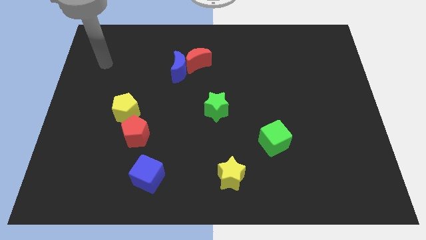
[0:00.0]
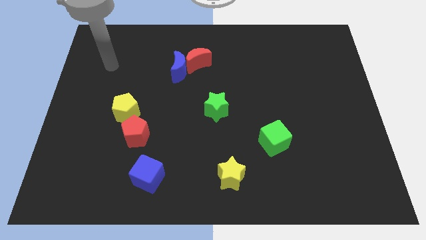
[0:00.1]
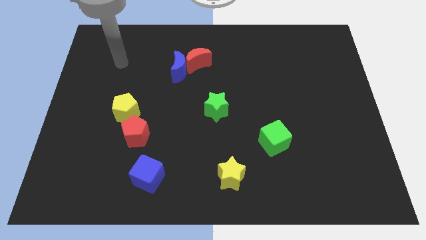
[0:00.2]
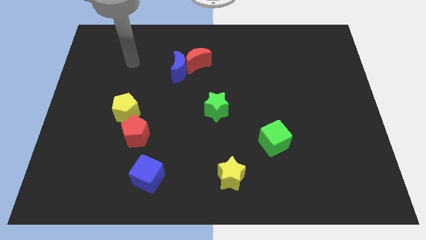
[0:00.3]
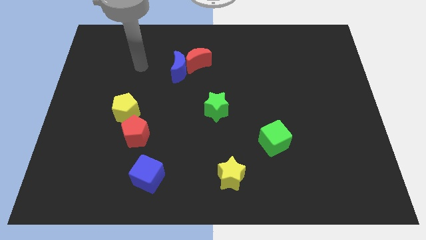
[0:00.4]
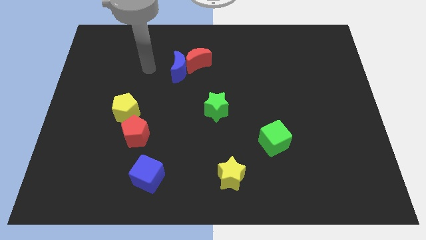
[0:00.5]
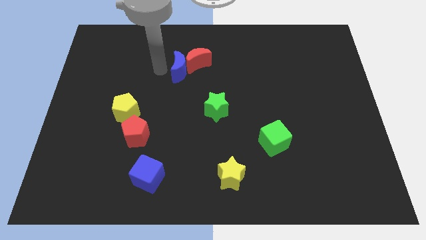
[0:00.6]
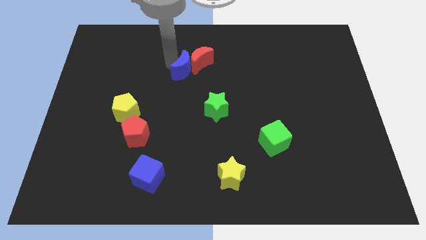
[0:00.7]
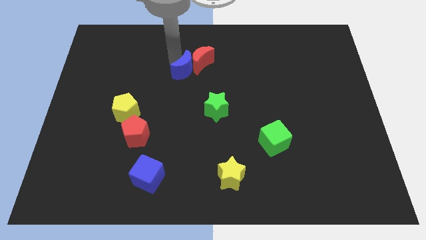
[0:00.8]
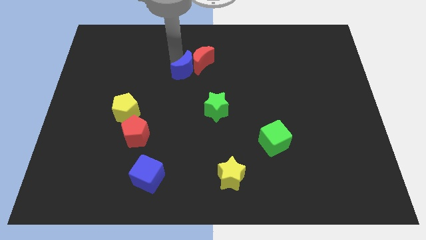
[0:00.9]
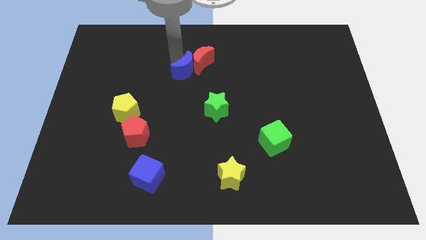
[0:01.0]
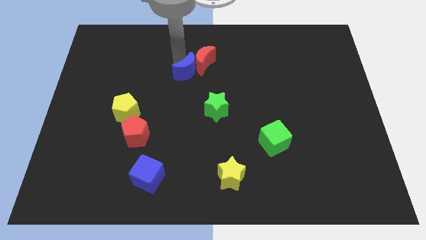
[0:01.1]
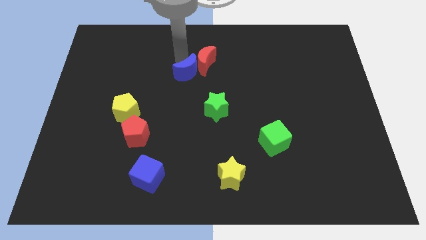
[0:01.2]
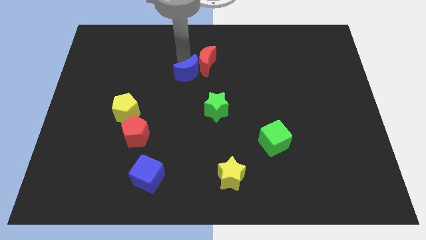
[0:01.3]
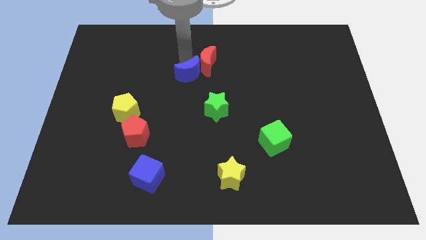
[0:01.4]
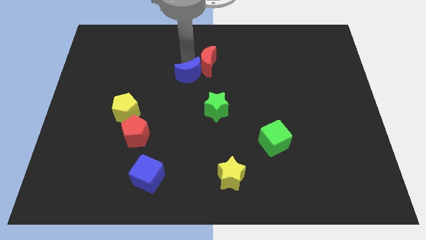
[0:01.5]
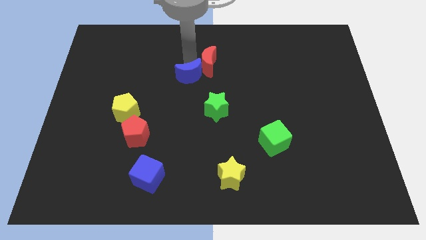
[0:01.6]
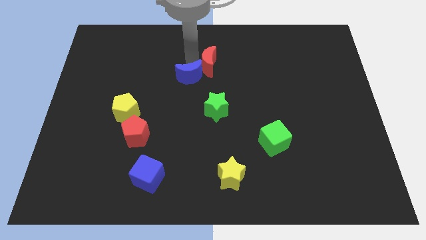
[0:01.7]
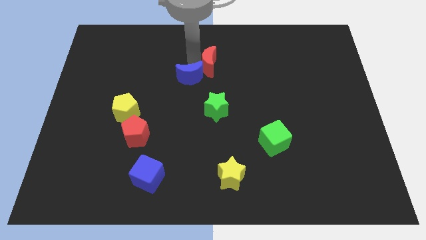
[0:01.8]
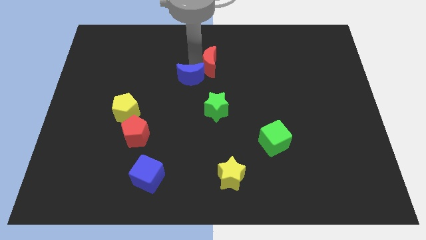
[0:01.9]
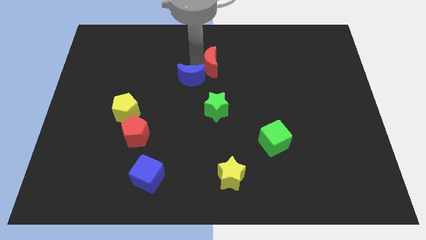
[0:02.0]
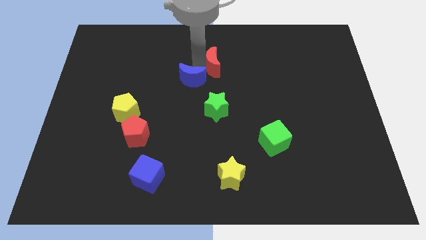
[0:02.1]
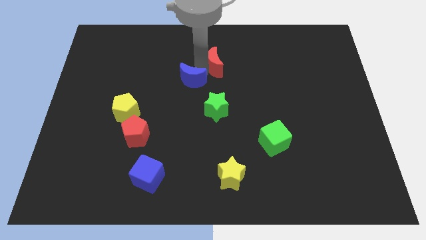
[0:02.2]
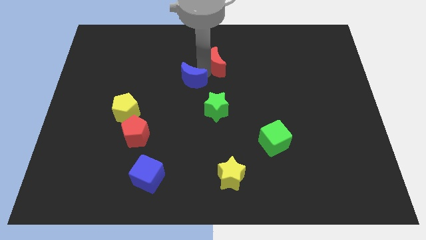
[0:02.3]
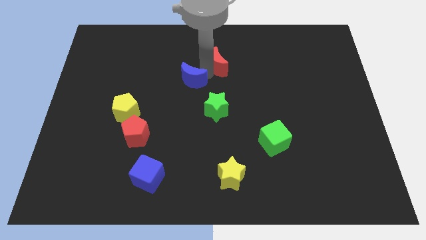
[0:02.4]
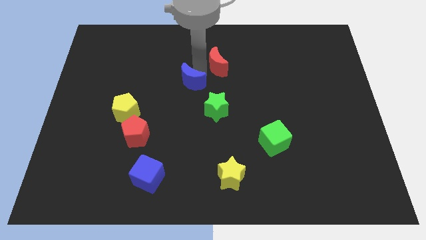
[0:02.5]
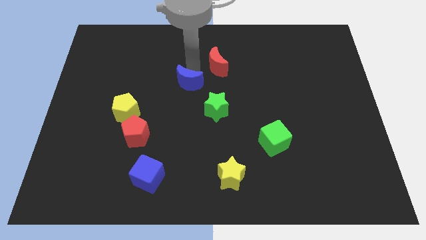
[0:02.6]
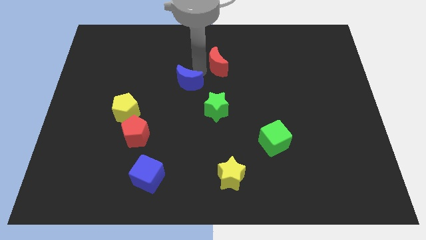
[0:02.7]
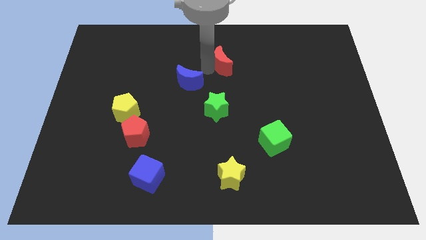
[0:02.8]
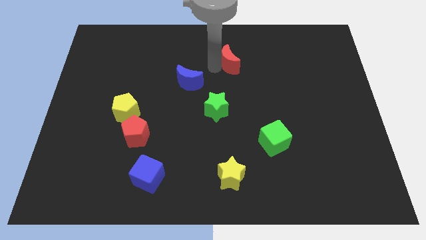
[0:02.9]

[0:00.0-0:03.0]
slide the red moon a bit to the right

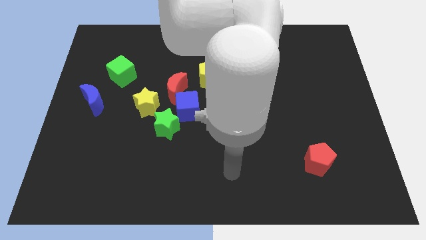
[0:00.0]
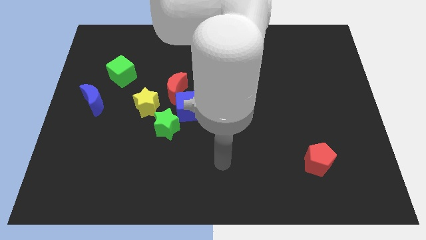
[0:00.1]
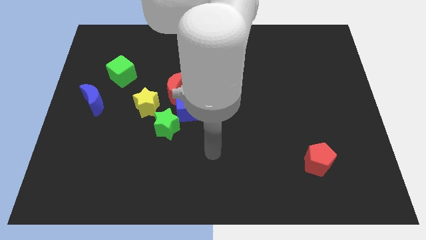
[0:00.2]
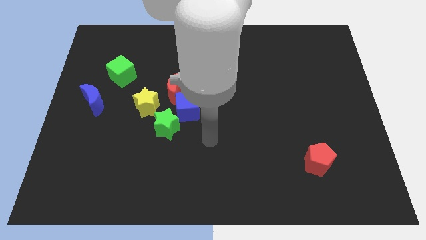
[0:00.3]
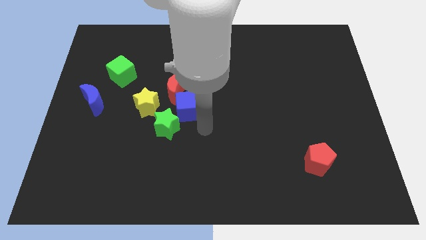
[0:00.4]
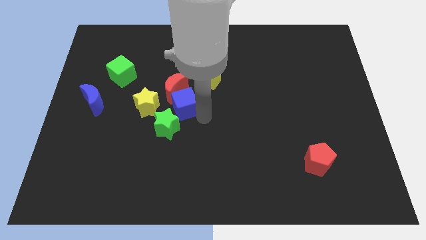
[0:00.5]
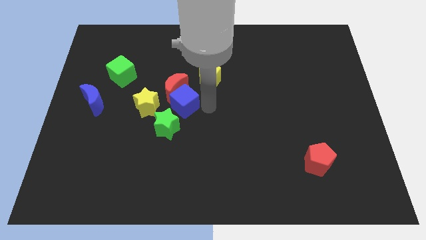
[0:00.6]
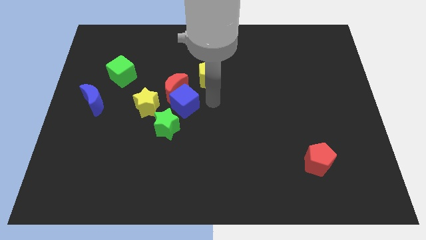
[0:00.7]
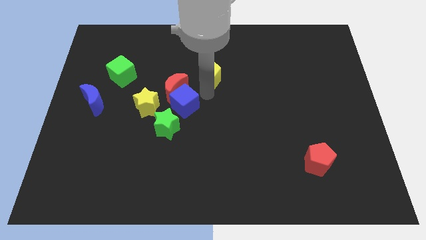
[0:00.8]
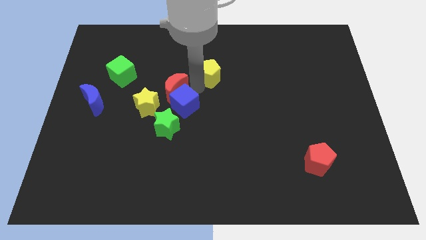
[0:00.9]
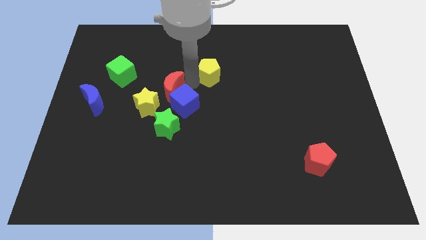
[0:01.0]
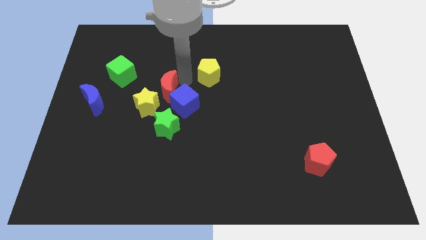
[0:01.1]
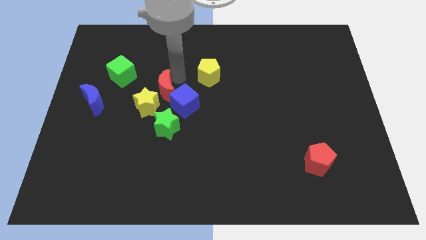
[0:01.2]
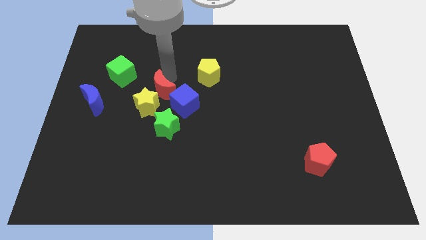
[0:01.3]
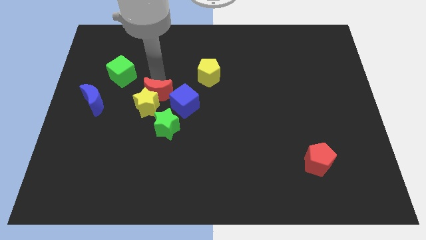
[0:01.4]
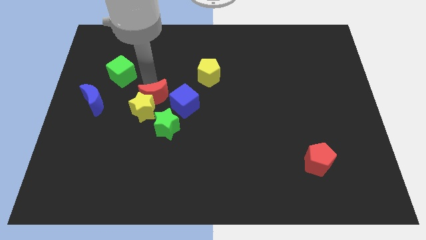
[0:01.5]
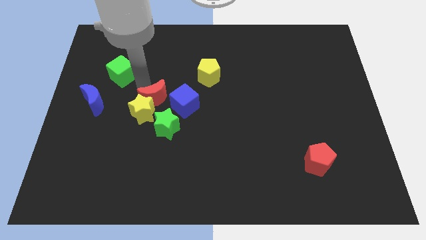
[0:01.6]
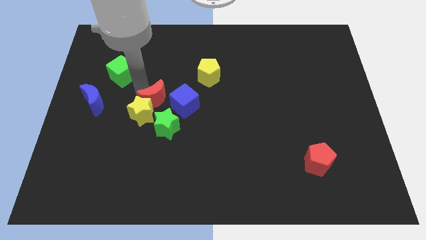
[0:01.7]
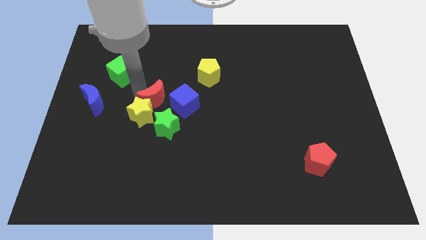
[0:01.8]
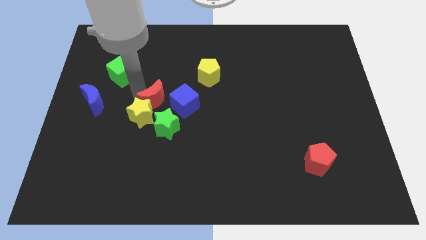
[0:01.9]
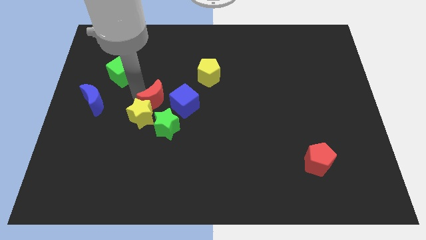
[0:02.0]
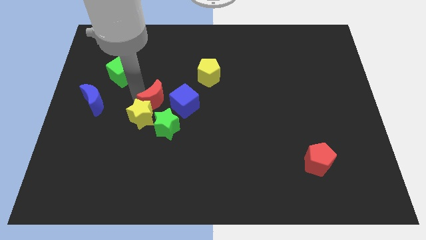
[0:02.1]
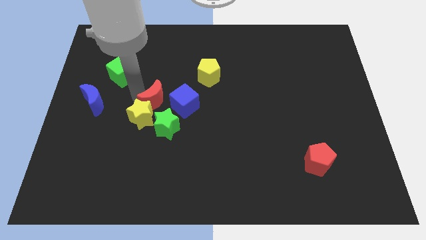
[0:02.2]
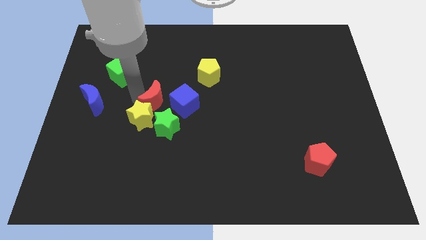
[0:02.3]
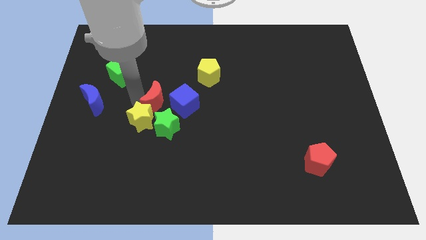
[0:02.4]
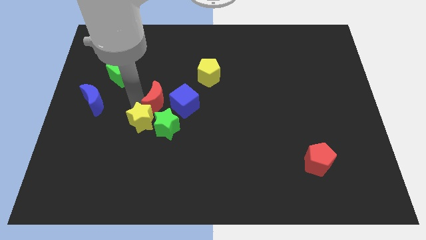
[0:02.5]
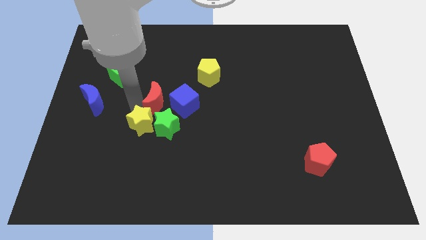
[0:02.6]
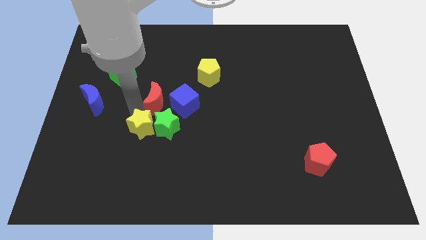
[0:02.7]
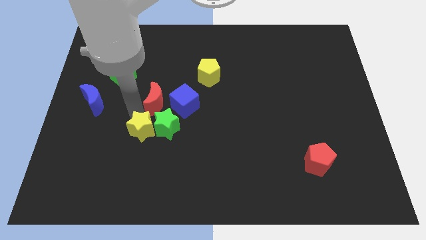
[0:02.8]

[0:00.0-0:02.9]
move the yellow star down a little bit

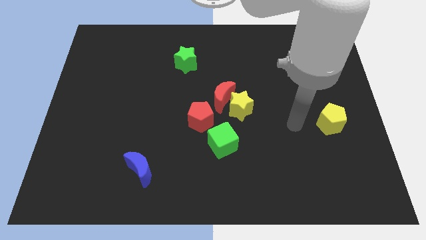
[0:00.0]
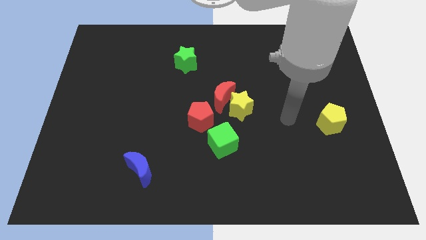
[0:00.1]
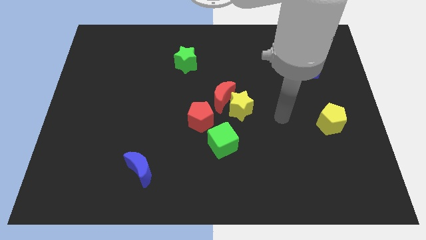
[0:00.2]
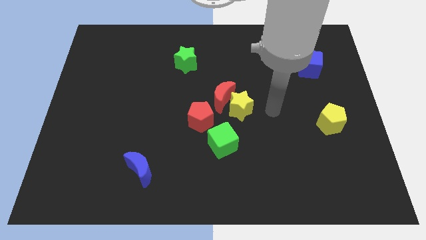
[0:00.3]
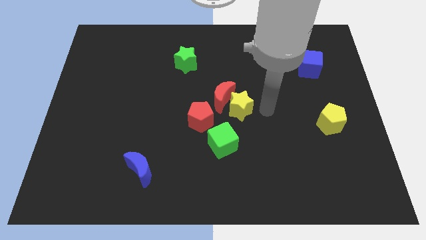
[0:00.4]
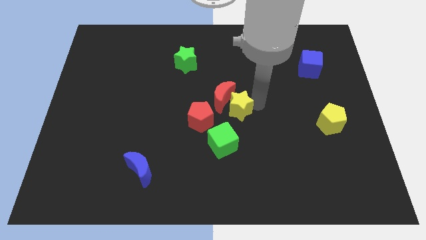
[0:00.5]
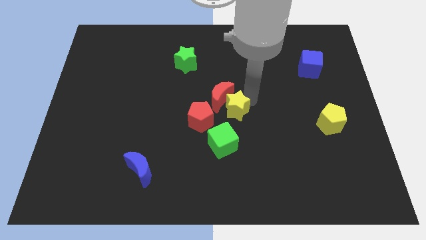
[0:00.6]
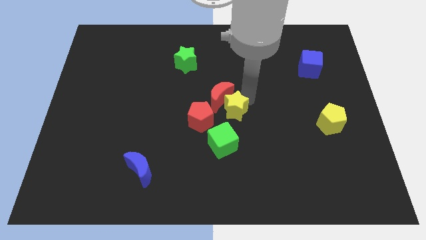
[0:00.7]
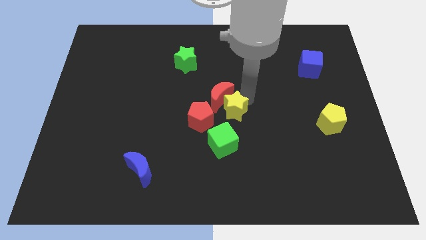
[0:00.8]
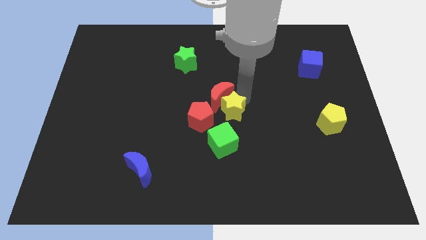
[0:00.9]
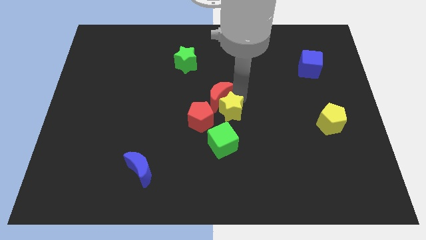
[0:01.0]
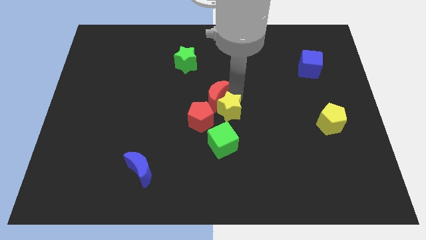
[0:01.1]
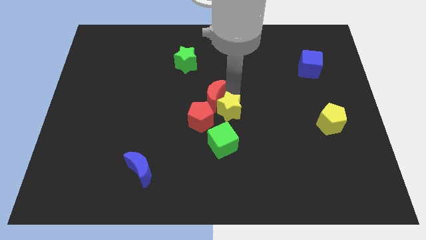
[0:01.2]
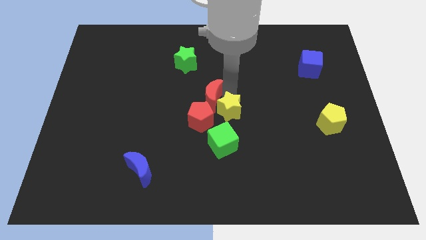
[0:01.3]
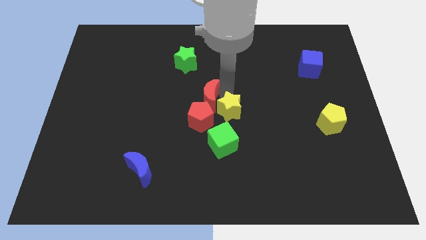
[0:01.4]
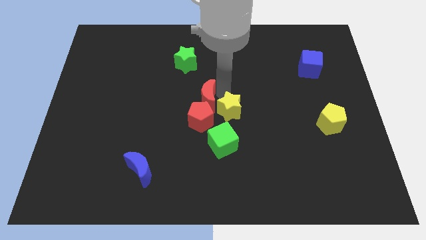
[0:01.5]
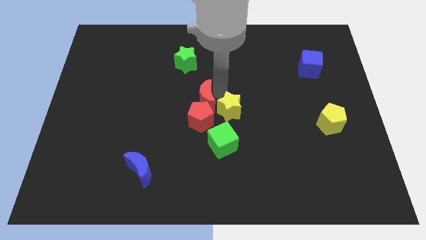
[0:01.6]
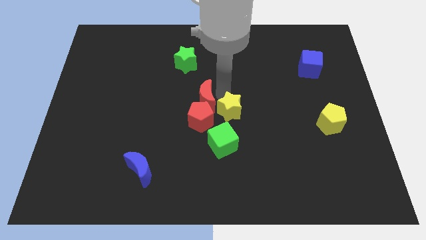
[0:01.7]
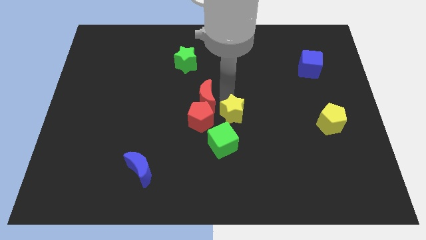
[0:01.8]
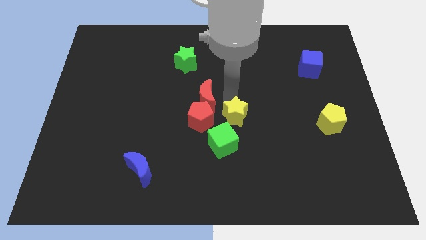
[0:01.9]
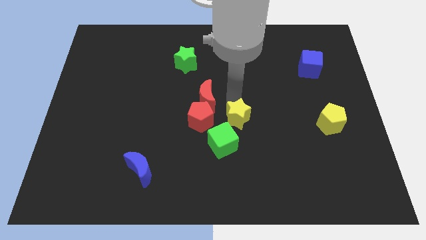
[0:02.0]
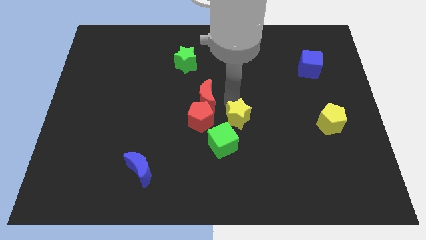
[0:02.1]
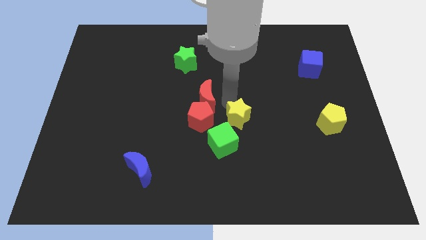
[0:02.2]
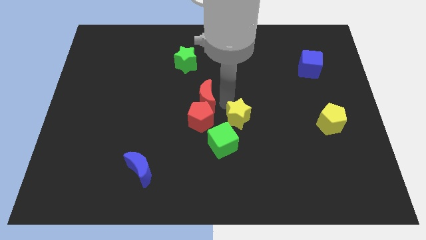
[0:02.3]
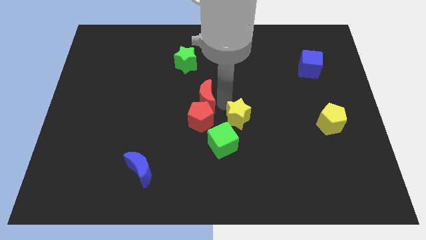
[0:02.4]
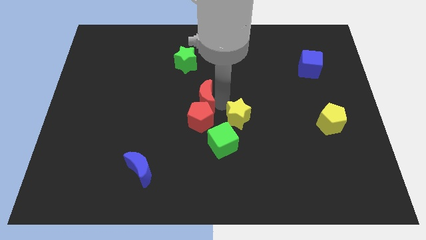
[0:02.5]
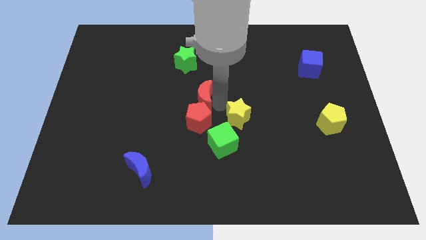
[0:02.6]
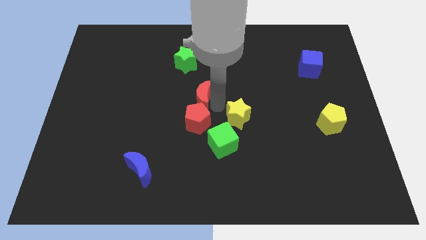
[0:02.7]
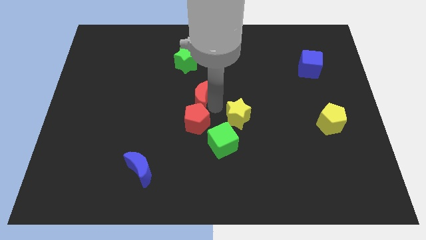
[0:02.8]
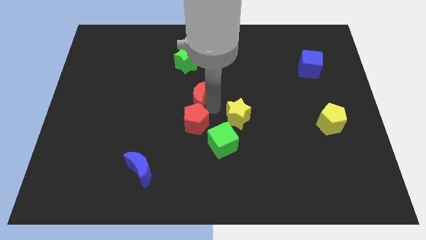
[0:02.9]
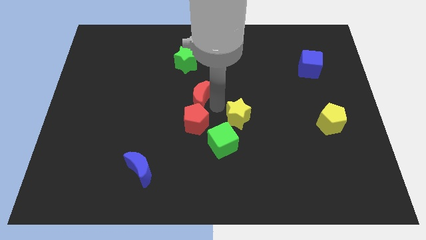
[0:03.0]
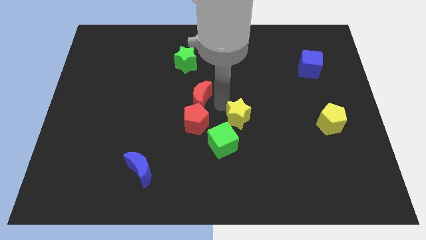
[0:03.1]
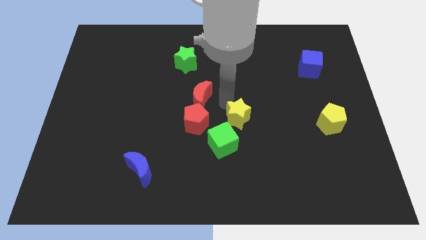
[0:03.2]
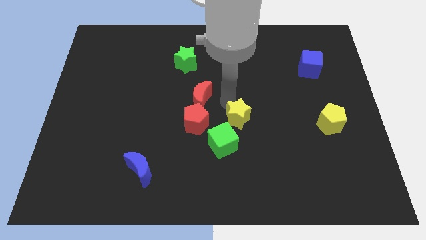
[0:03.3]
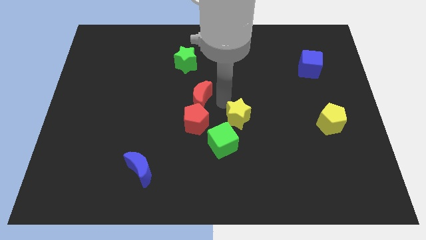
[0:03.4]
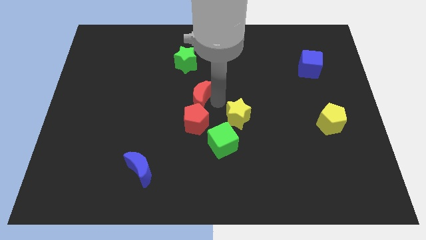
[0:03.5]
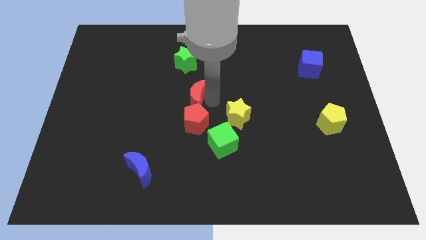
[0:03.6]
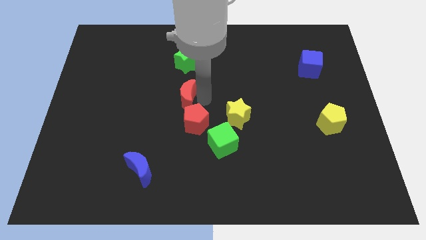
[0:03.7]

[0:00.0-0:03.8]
move the red moon to the left a little
